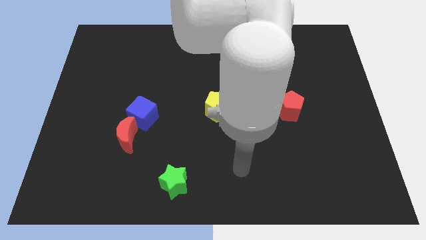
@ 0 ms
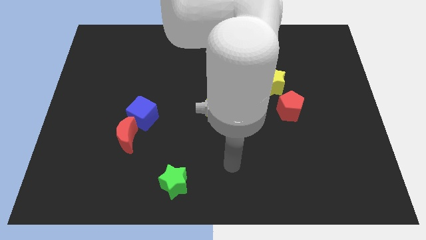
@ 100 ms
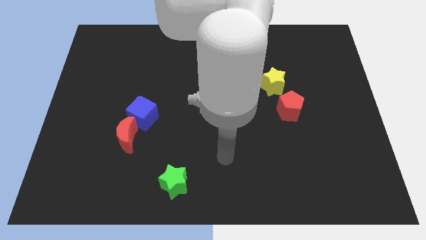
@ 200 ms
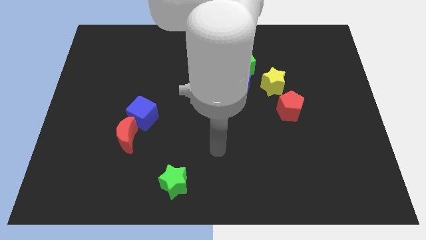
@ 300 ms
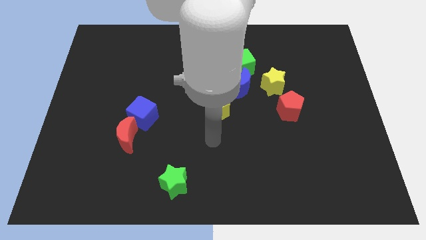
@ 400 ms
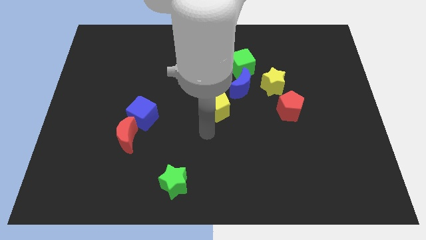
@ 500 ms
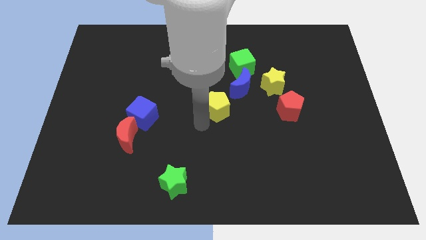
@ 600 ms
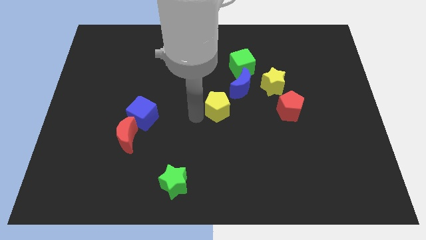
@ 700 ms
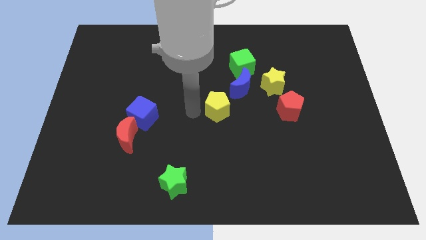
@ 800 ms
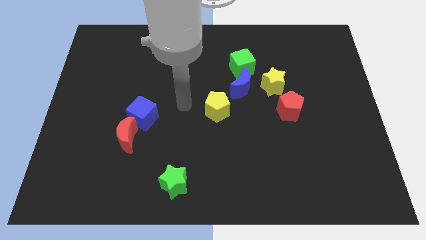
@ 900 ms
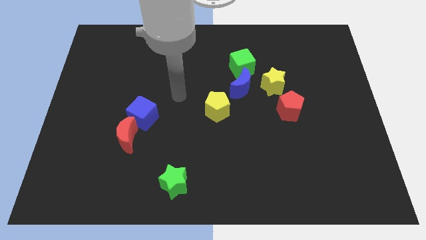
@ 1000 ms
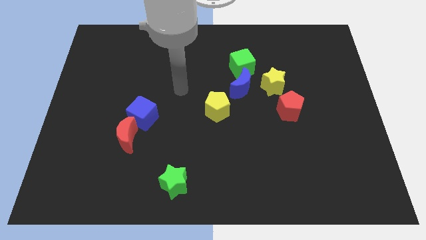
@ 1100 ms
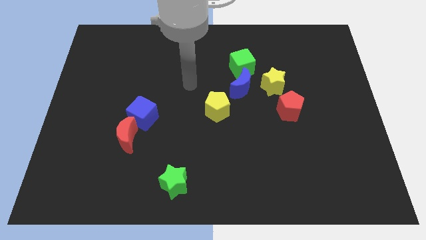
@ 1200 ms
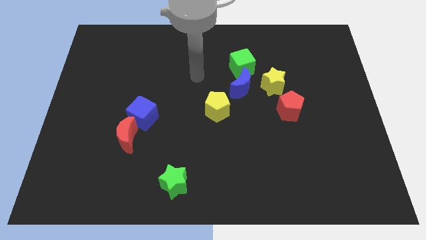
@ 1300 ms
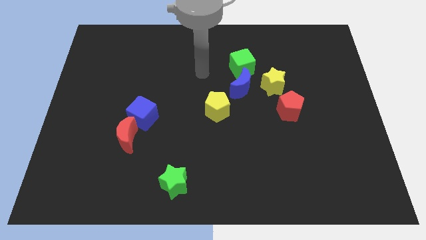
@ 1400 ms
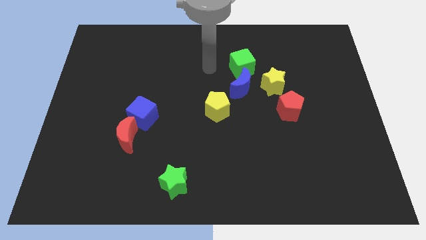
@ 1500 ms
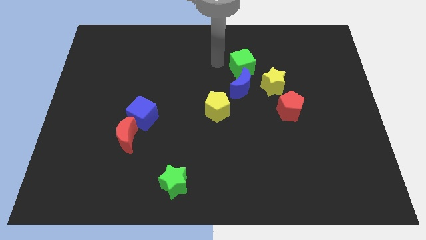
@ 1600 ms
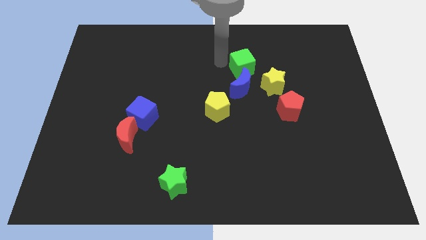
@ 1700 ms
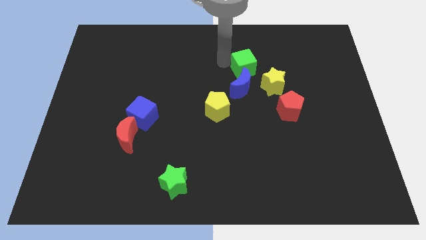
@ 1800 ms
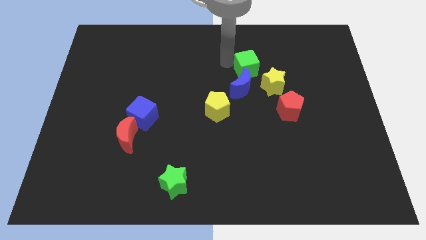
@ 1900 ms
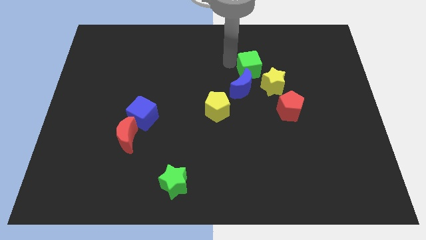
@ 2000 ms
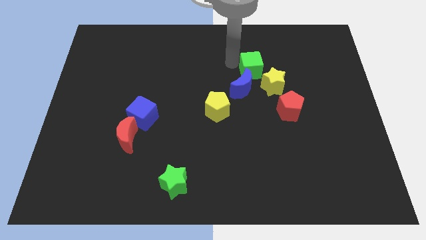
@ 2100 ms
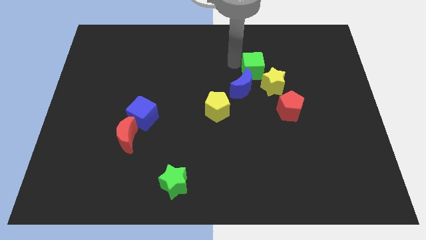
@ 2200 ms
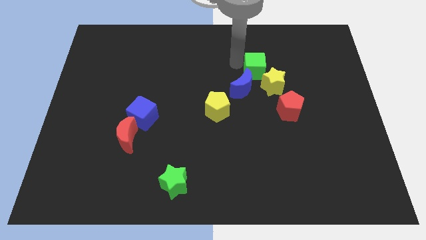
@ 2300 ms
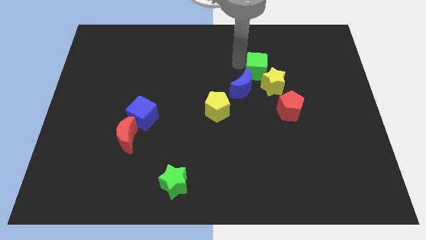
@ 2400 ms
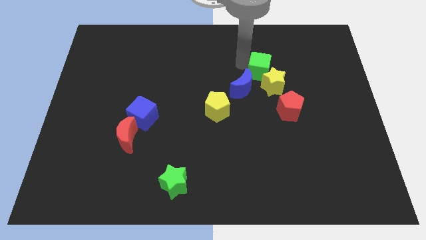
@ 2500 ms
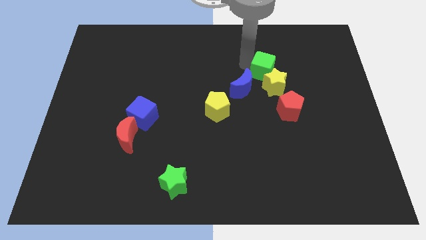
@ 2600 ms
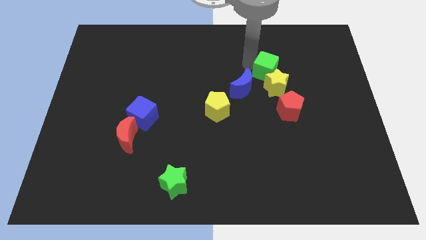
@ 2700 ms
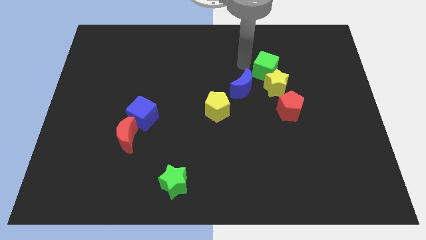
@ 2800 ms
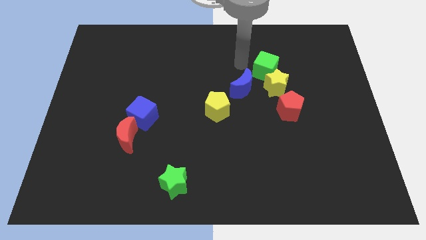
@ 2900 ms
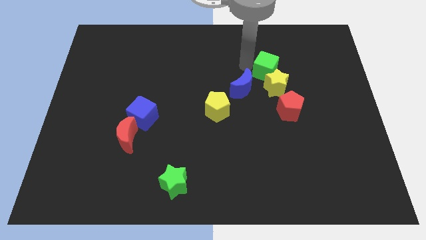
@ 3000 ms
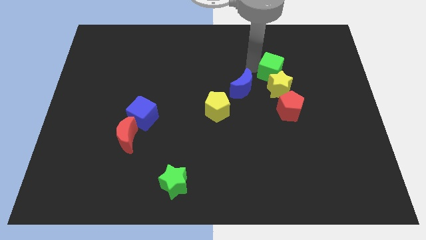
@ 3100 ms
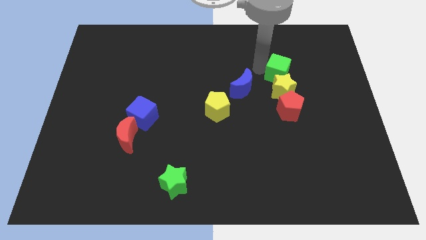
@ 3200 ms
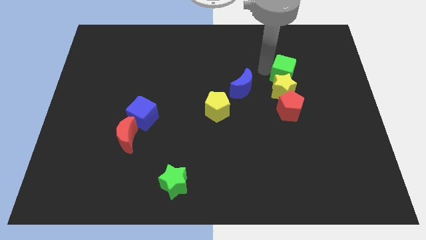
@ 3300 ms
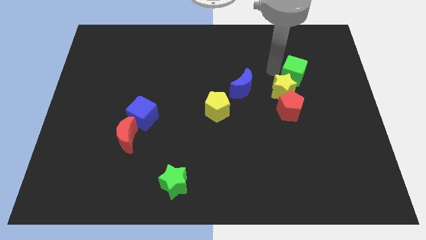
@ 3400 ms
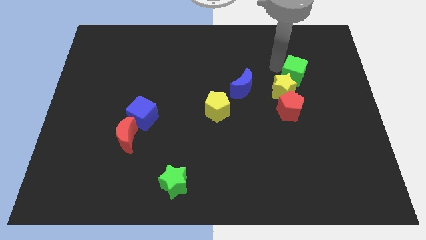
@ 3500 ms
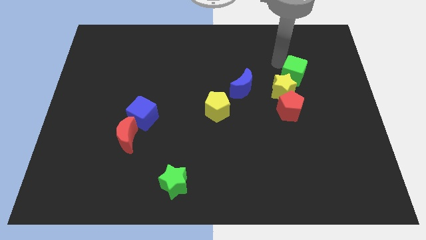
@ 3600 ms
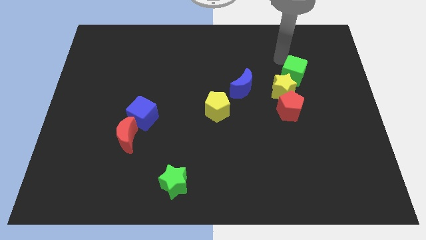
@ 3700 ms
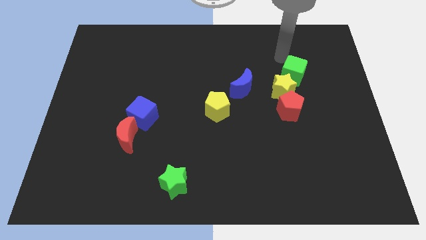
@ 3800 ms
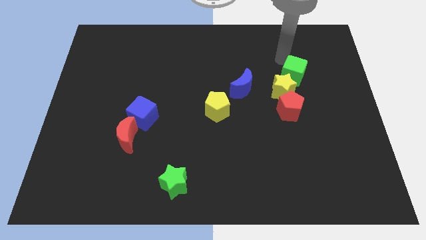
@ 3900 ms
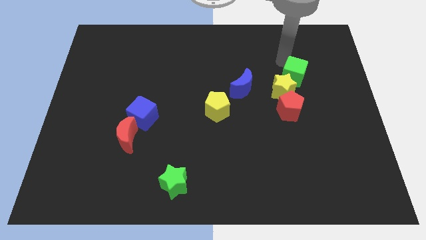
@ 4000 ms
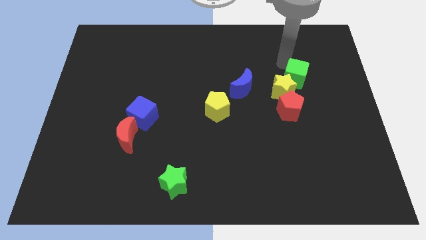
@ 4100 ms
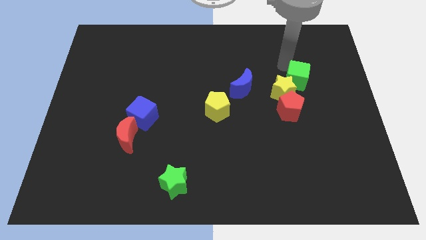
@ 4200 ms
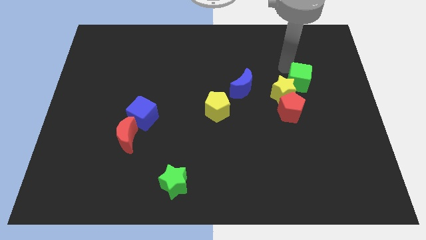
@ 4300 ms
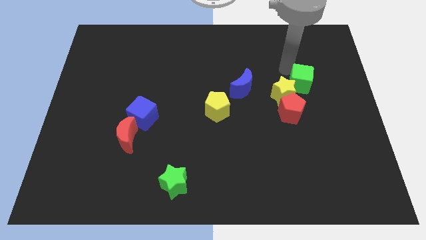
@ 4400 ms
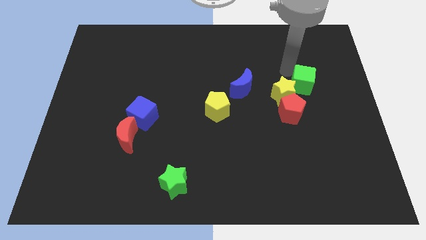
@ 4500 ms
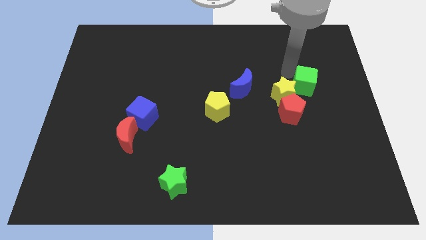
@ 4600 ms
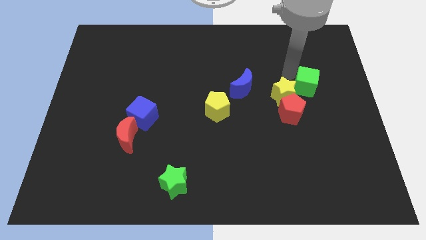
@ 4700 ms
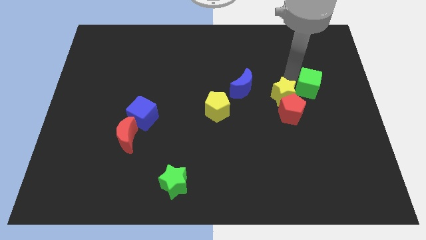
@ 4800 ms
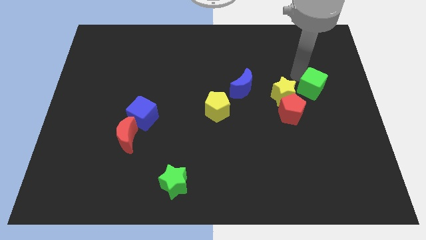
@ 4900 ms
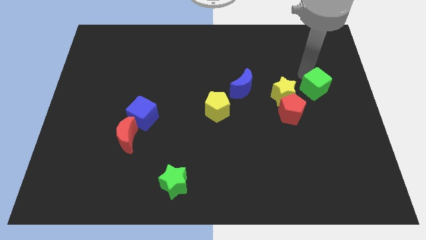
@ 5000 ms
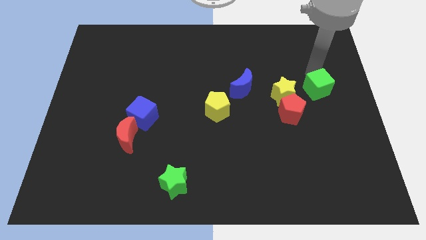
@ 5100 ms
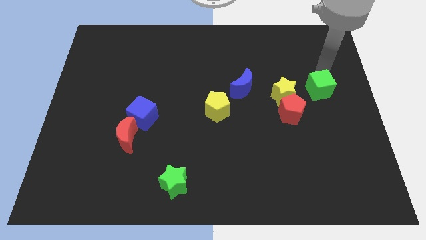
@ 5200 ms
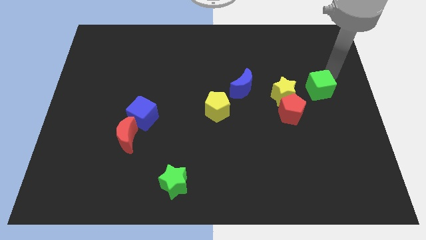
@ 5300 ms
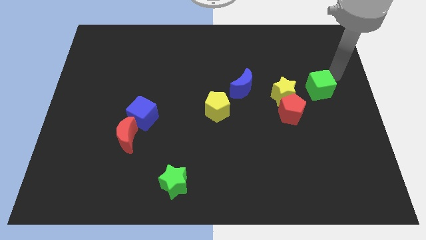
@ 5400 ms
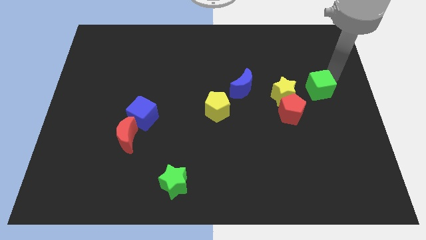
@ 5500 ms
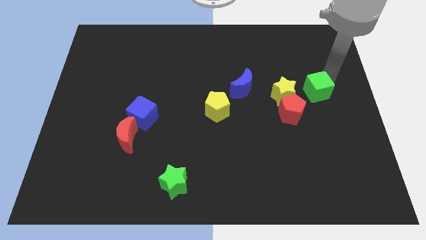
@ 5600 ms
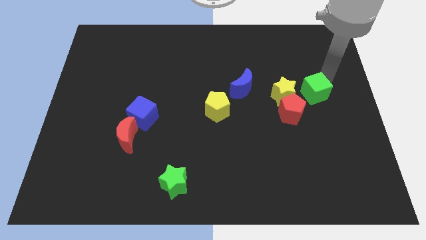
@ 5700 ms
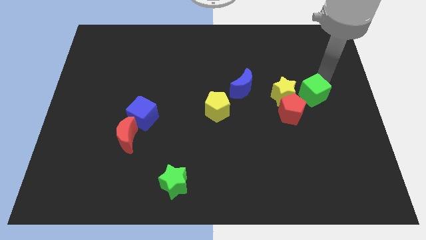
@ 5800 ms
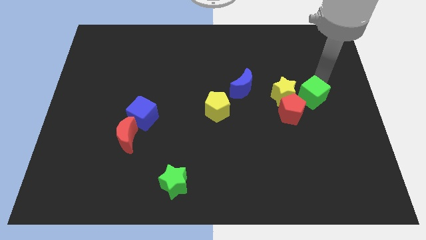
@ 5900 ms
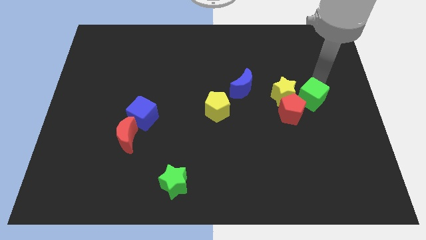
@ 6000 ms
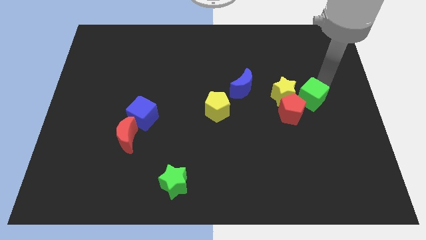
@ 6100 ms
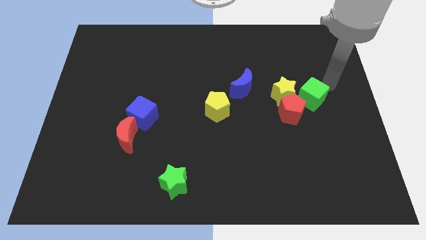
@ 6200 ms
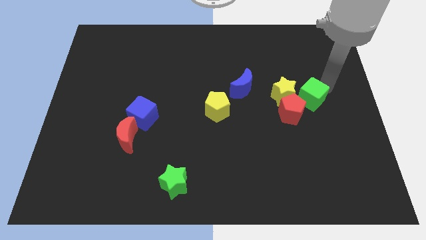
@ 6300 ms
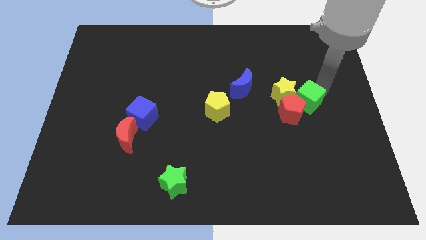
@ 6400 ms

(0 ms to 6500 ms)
slide the green cube towards the red pentagon
